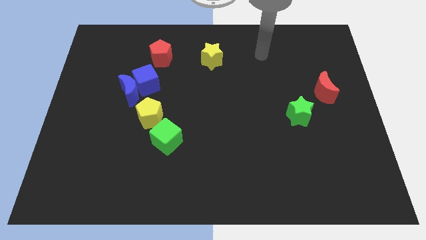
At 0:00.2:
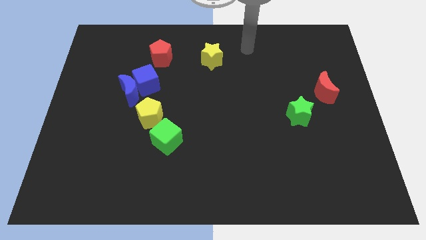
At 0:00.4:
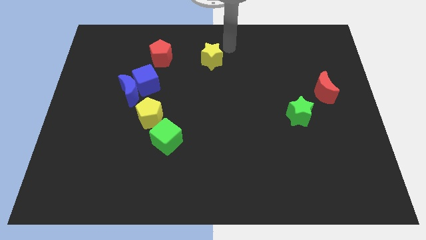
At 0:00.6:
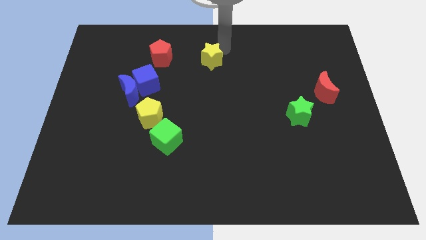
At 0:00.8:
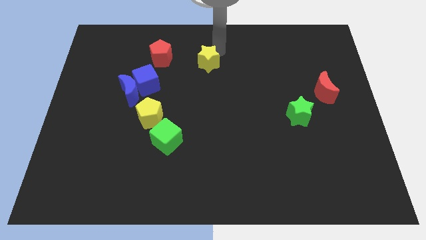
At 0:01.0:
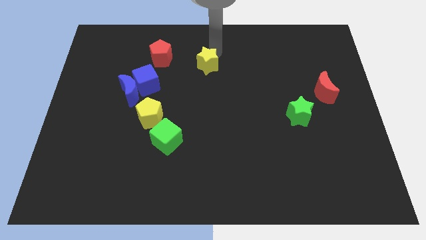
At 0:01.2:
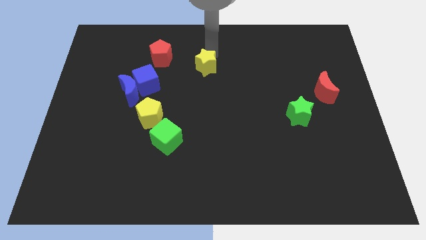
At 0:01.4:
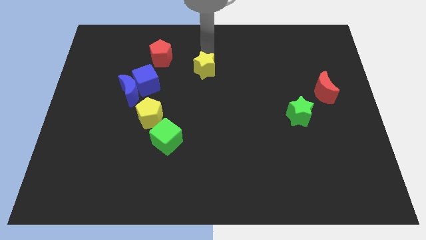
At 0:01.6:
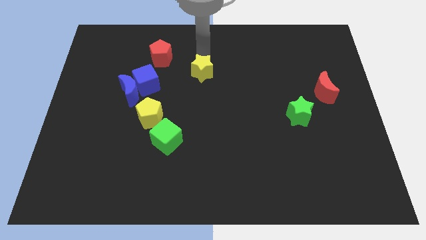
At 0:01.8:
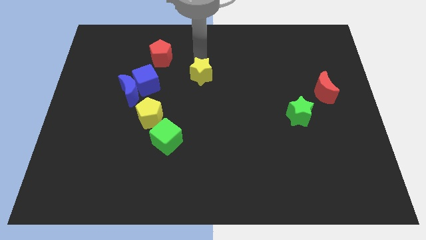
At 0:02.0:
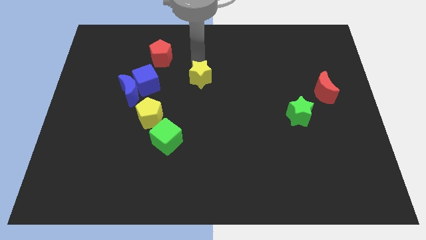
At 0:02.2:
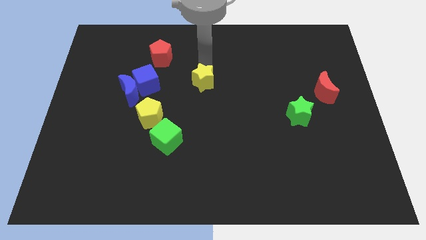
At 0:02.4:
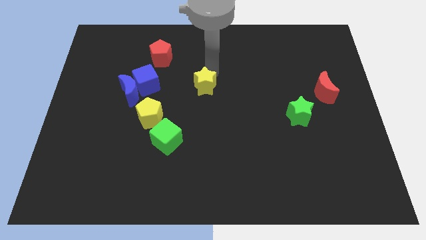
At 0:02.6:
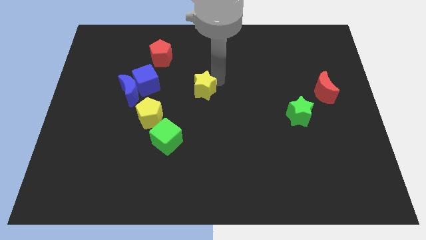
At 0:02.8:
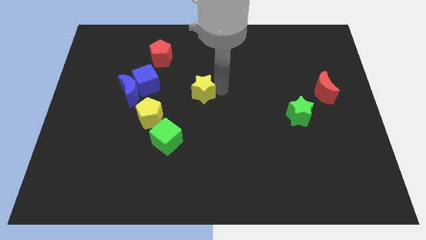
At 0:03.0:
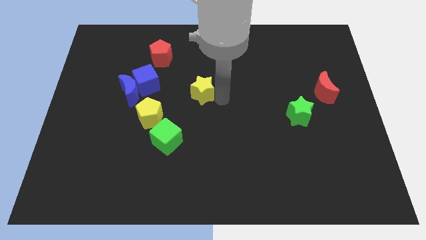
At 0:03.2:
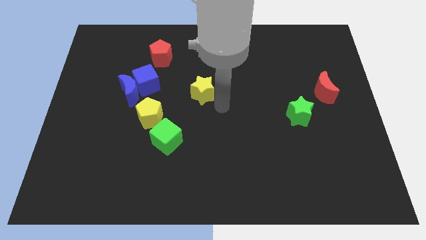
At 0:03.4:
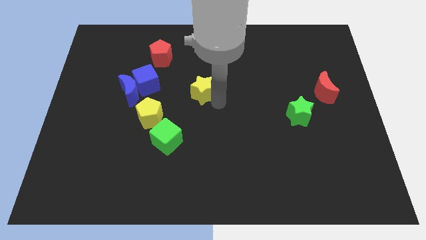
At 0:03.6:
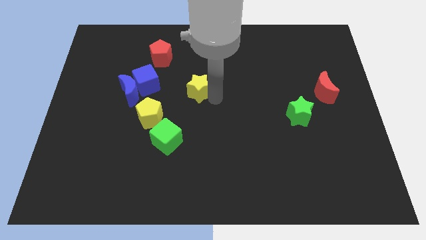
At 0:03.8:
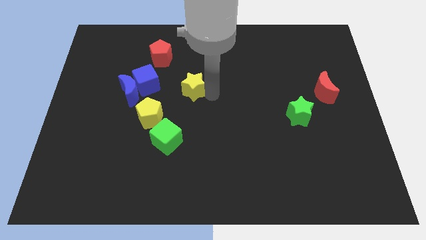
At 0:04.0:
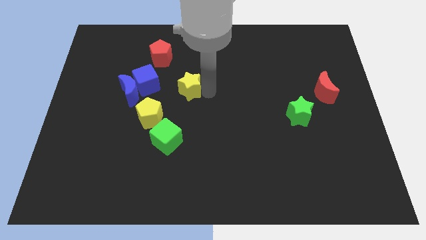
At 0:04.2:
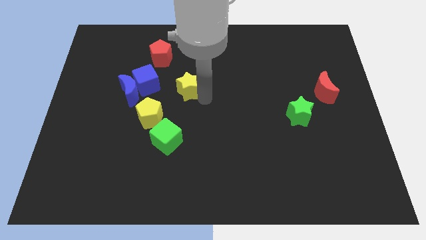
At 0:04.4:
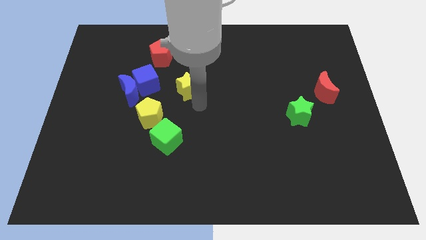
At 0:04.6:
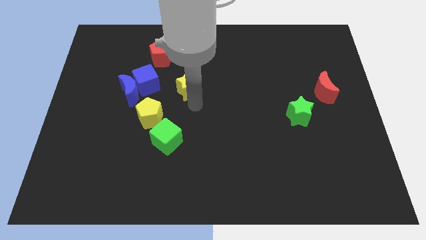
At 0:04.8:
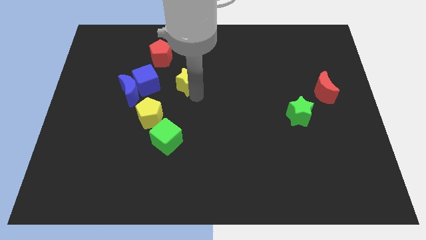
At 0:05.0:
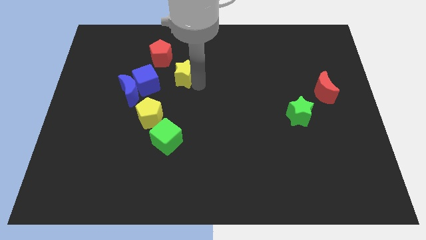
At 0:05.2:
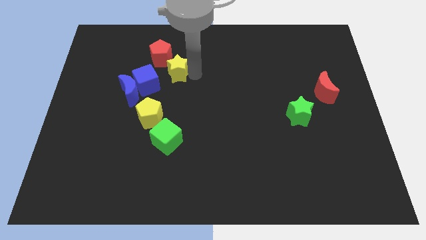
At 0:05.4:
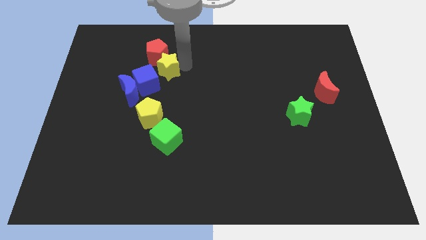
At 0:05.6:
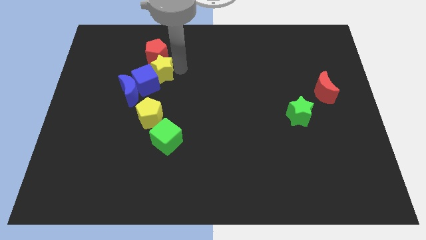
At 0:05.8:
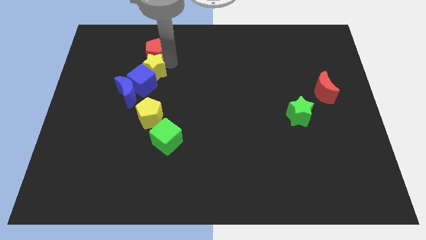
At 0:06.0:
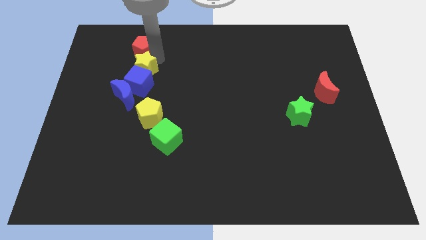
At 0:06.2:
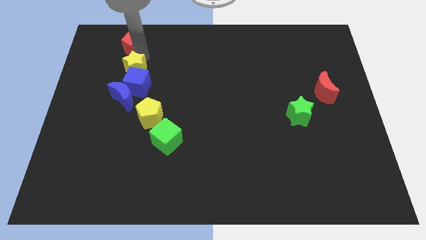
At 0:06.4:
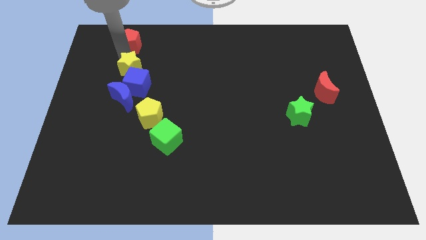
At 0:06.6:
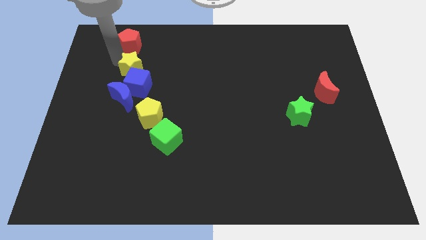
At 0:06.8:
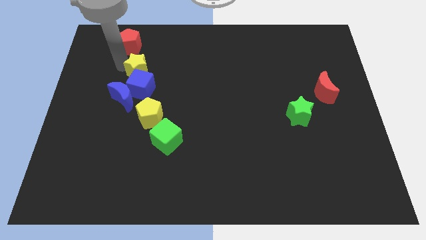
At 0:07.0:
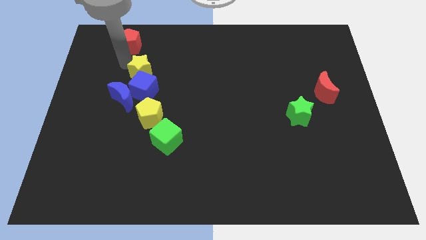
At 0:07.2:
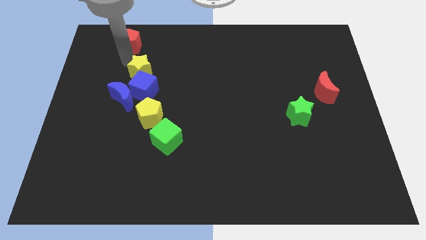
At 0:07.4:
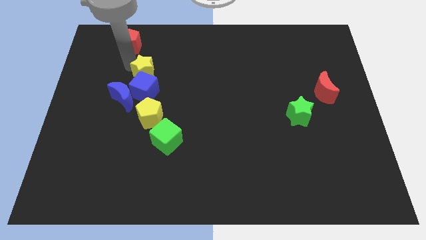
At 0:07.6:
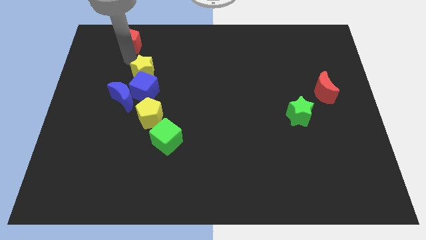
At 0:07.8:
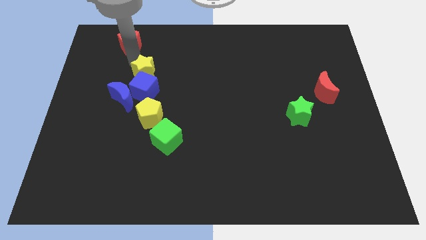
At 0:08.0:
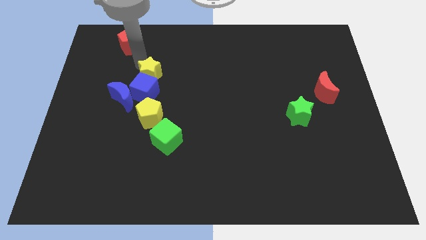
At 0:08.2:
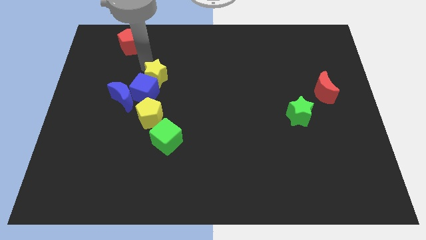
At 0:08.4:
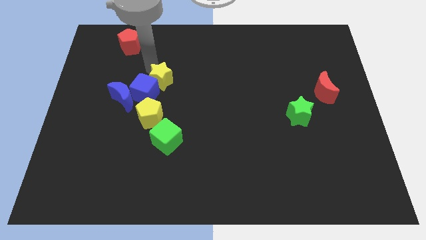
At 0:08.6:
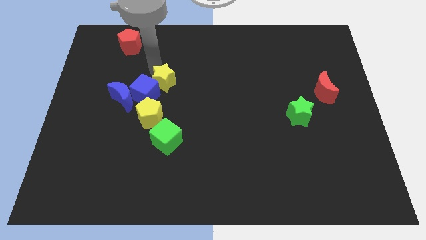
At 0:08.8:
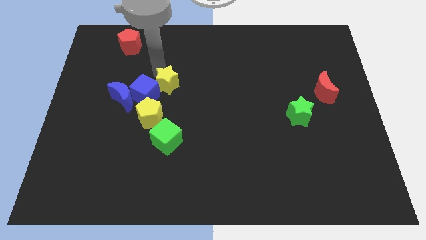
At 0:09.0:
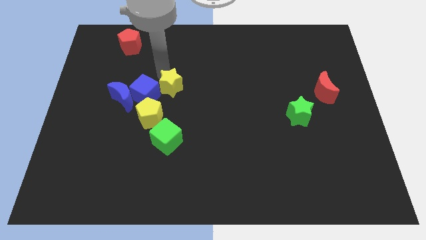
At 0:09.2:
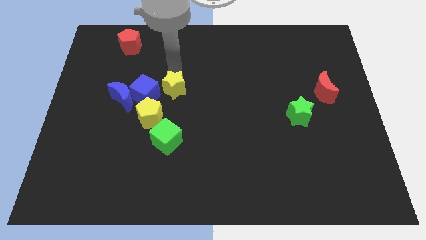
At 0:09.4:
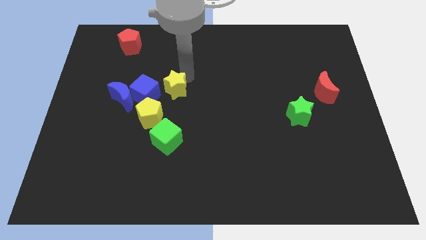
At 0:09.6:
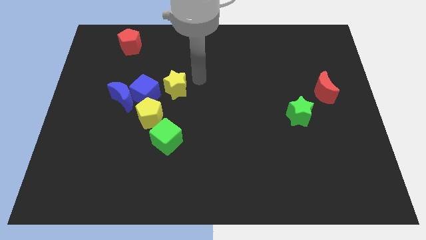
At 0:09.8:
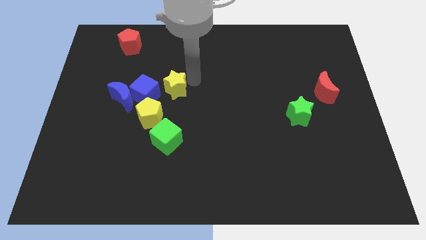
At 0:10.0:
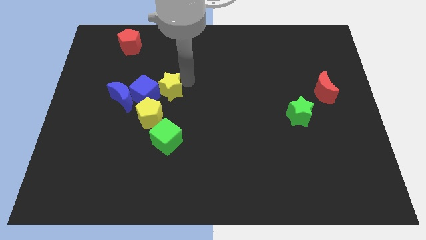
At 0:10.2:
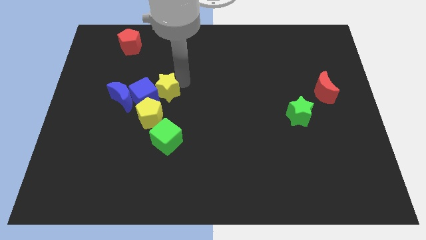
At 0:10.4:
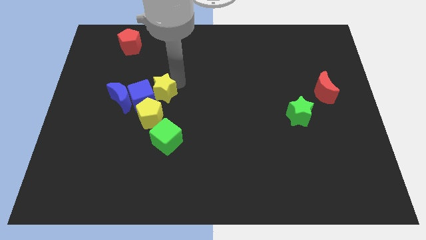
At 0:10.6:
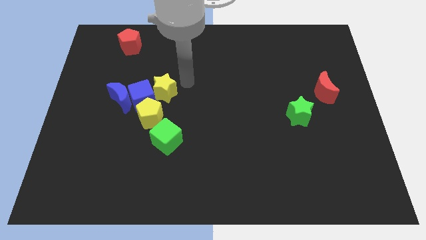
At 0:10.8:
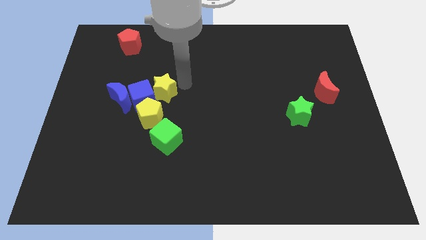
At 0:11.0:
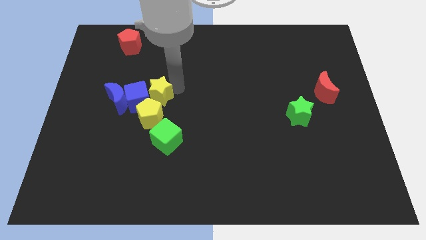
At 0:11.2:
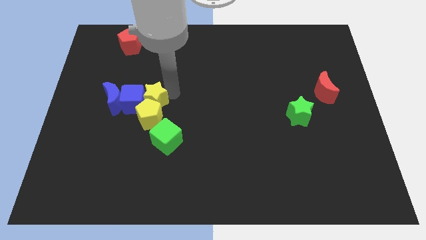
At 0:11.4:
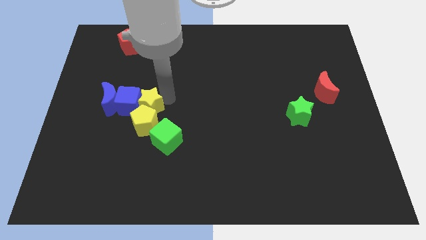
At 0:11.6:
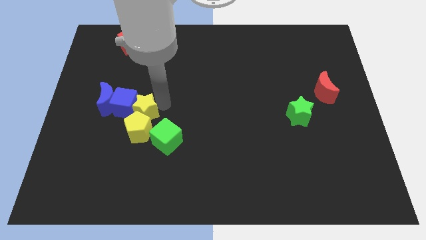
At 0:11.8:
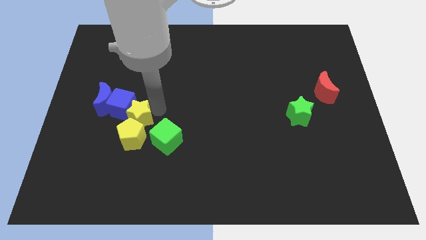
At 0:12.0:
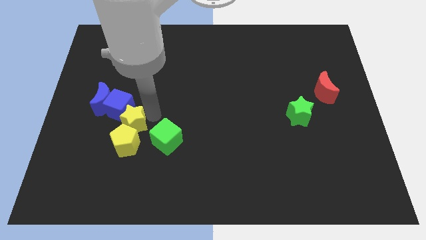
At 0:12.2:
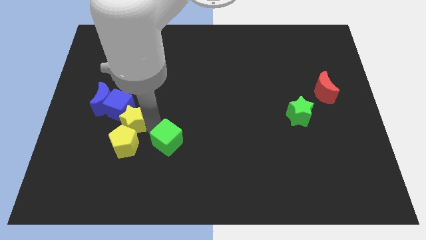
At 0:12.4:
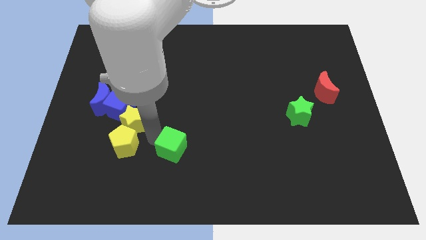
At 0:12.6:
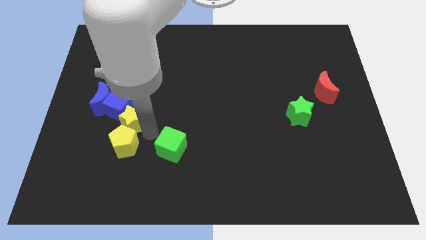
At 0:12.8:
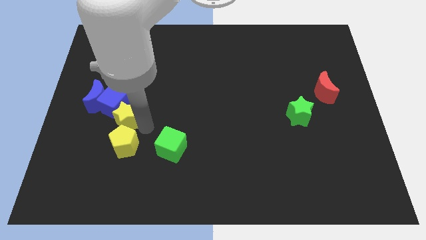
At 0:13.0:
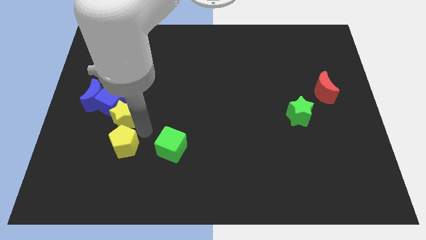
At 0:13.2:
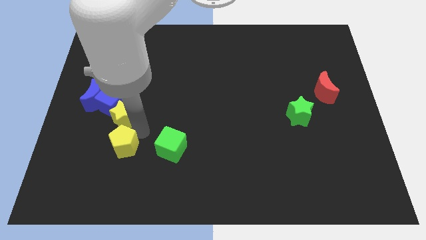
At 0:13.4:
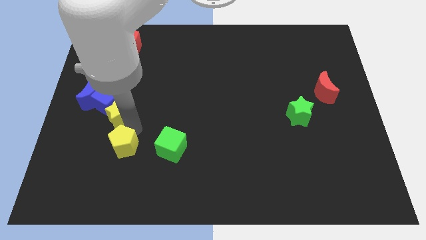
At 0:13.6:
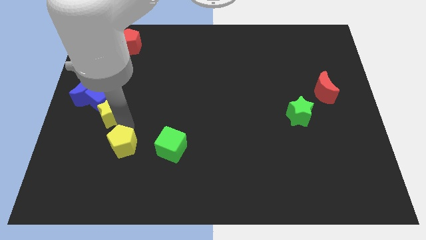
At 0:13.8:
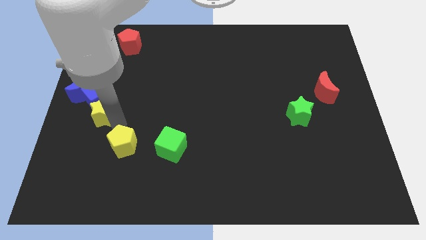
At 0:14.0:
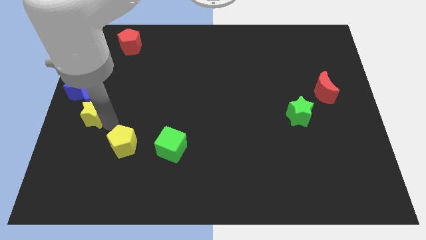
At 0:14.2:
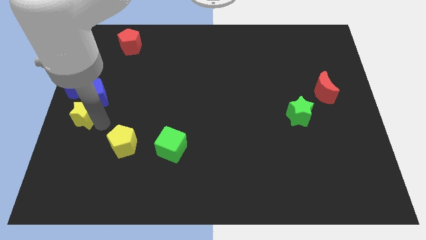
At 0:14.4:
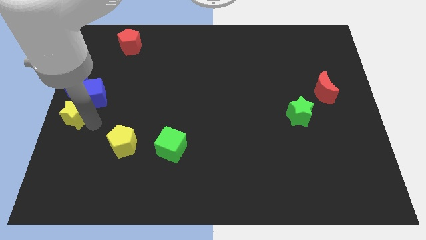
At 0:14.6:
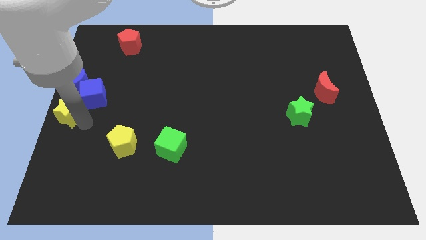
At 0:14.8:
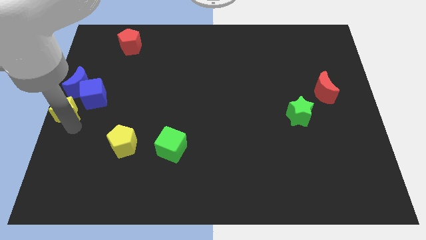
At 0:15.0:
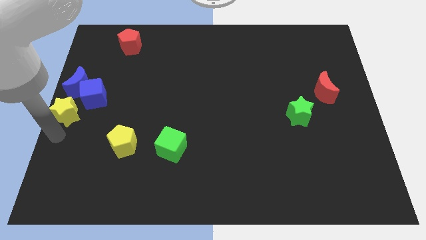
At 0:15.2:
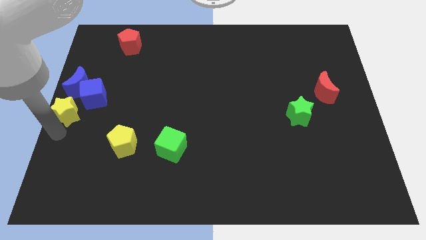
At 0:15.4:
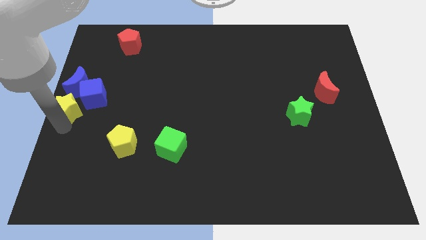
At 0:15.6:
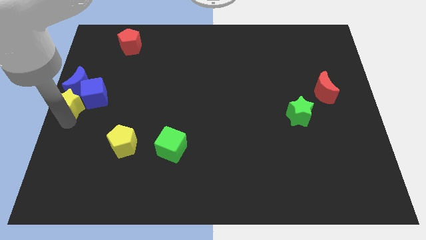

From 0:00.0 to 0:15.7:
slide the yellow star towards the blue moon
